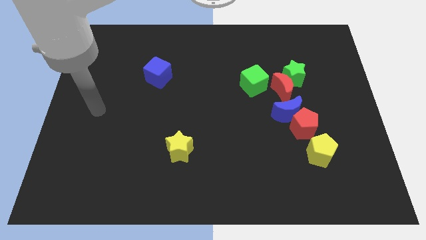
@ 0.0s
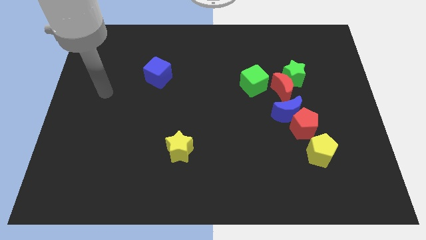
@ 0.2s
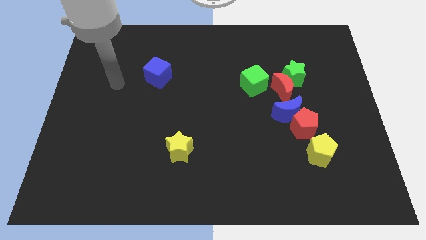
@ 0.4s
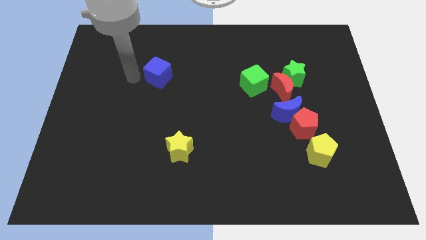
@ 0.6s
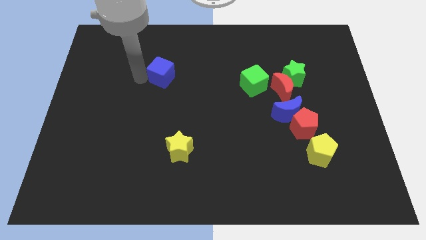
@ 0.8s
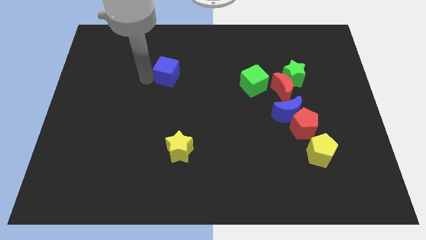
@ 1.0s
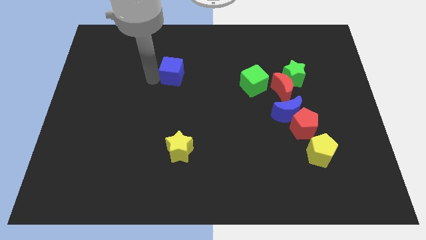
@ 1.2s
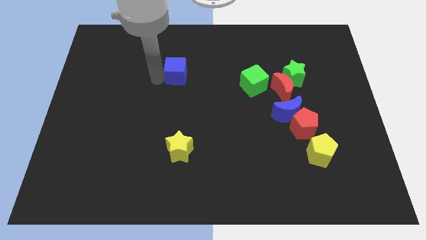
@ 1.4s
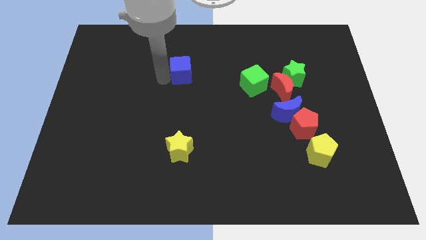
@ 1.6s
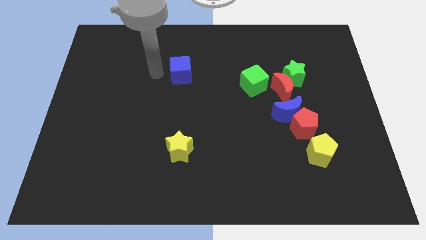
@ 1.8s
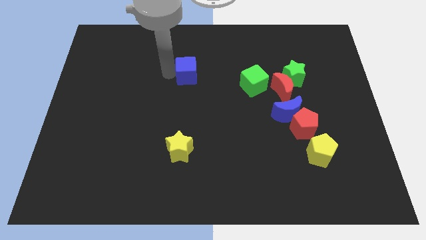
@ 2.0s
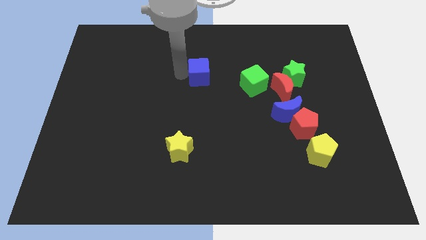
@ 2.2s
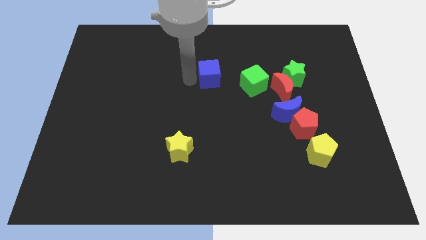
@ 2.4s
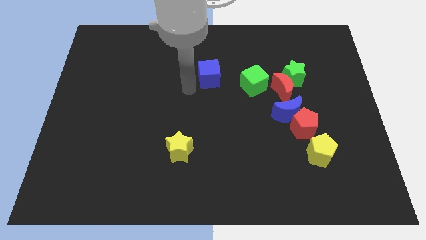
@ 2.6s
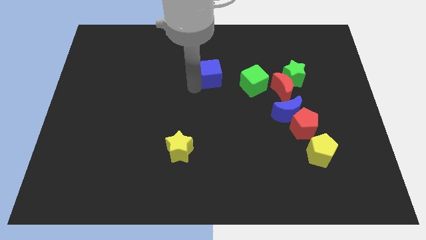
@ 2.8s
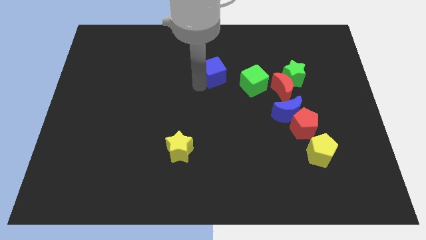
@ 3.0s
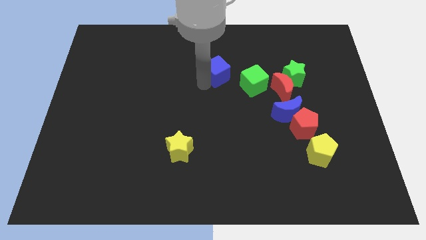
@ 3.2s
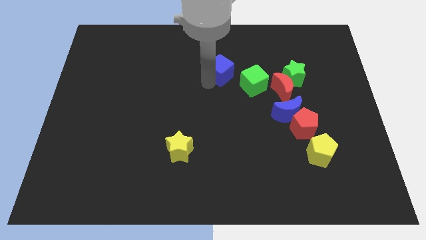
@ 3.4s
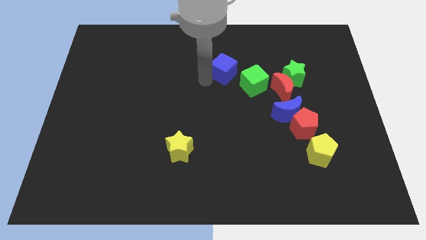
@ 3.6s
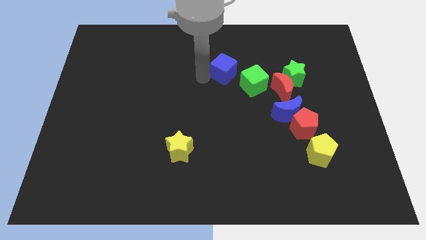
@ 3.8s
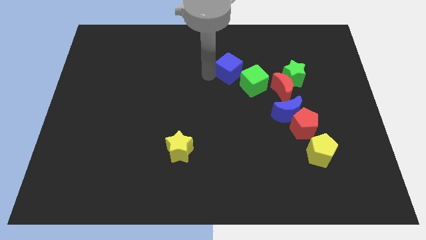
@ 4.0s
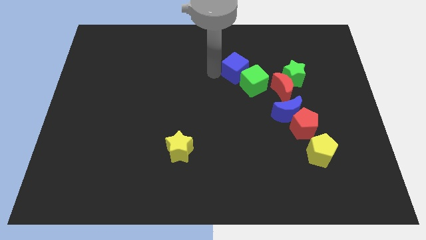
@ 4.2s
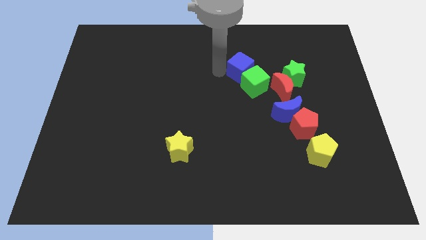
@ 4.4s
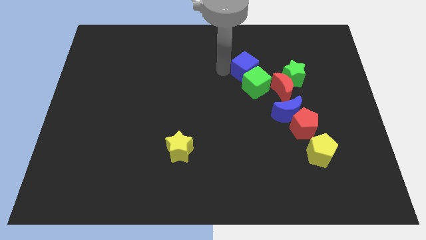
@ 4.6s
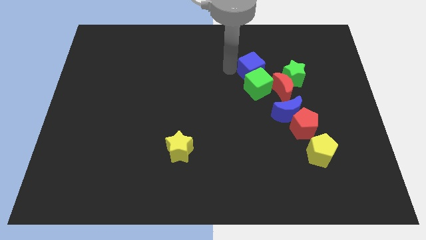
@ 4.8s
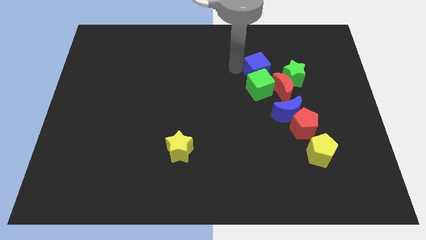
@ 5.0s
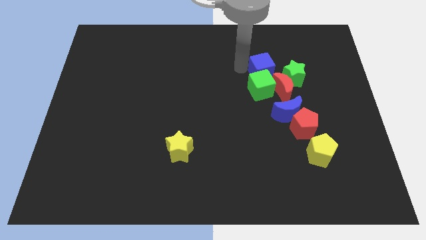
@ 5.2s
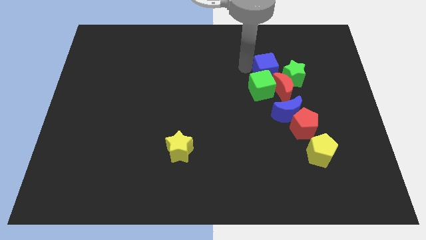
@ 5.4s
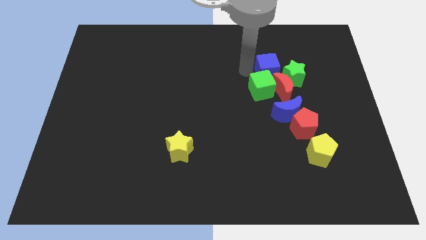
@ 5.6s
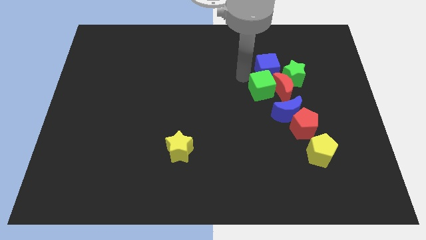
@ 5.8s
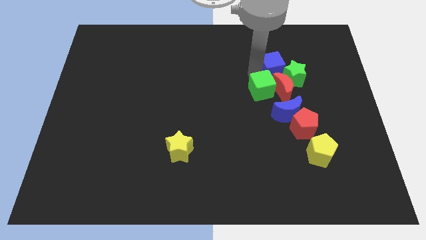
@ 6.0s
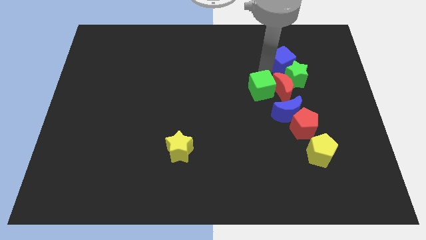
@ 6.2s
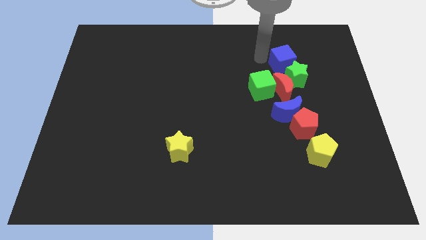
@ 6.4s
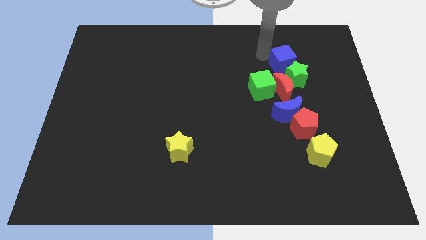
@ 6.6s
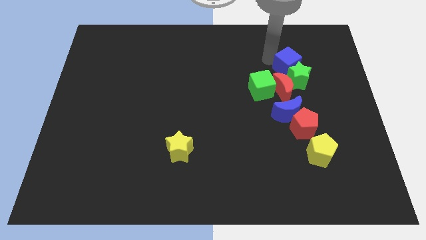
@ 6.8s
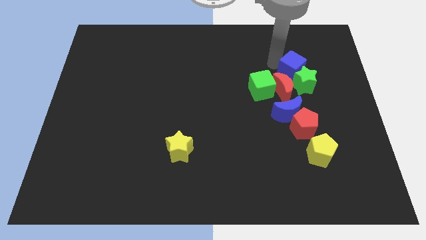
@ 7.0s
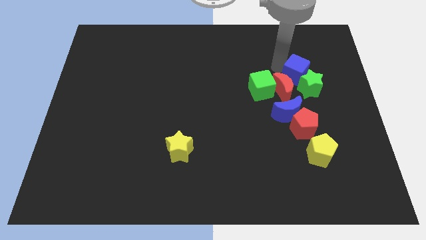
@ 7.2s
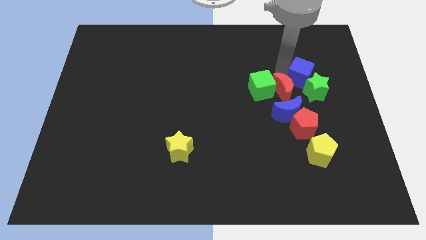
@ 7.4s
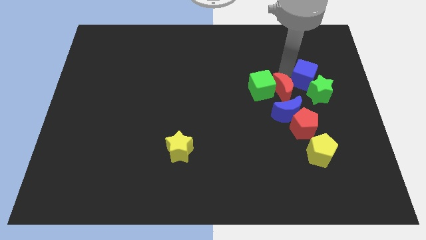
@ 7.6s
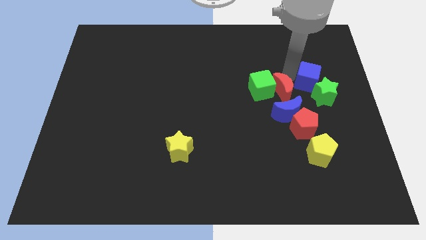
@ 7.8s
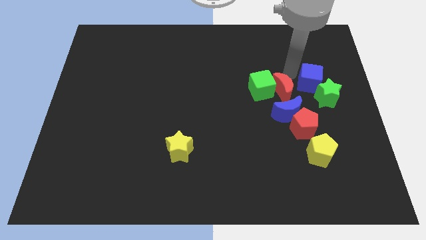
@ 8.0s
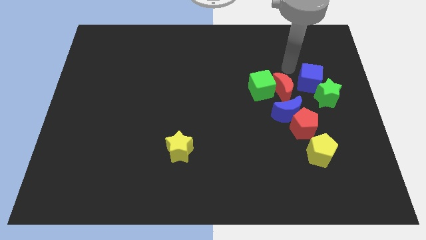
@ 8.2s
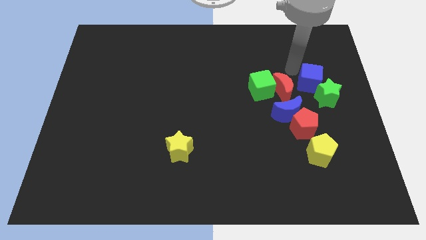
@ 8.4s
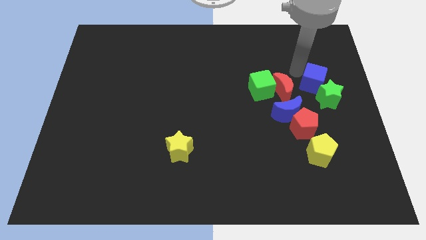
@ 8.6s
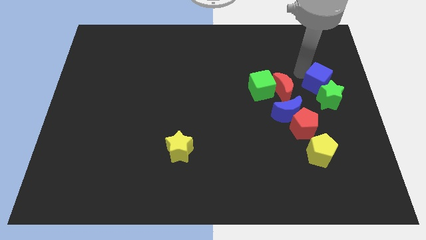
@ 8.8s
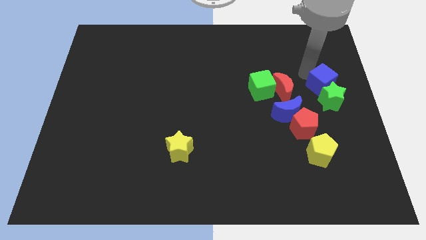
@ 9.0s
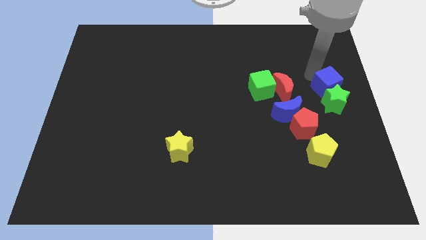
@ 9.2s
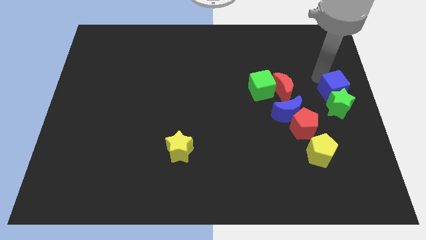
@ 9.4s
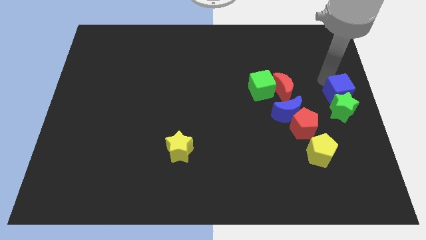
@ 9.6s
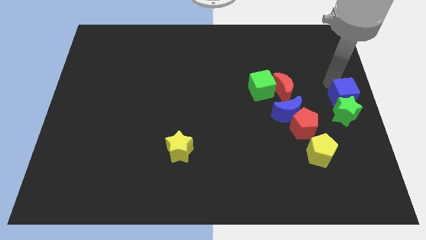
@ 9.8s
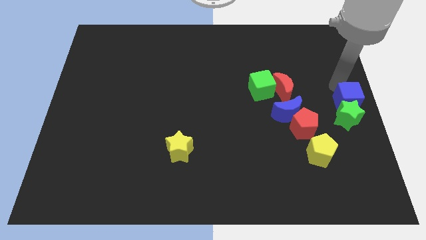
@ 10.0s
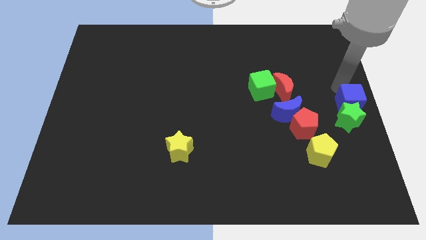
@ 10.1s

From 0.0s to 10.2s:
slide the blue cube to the right of the blue moon

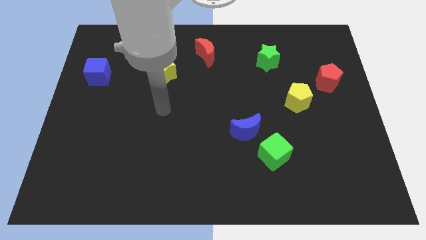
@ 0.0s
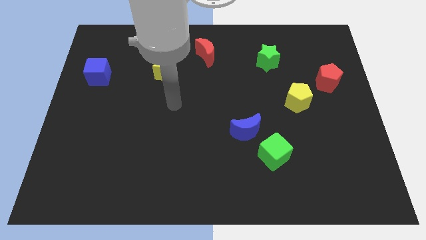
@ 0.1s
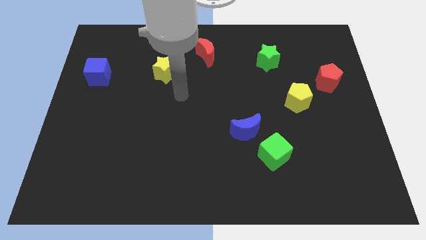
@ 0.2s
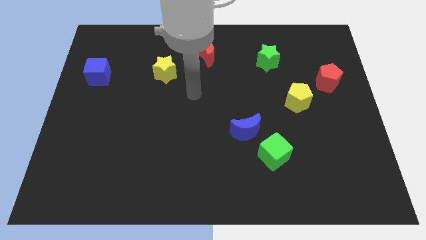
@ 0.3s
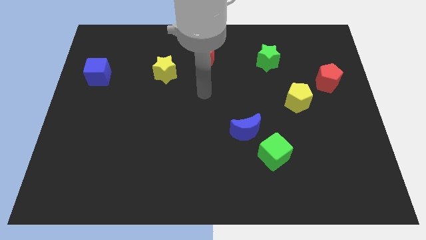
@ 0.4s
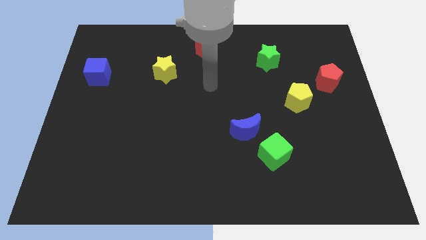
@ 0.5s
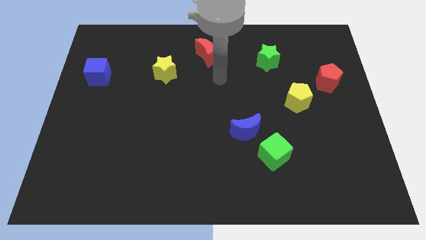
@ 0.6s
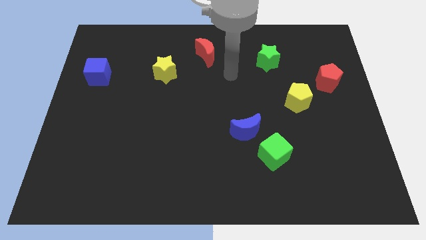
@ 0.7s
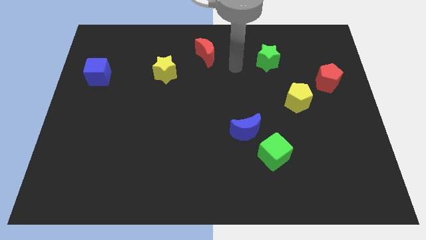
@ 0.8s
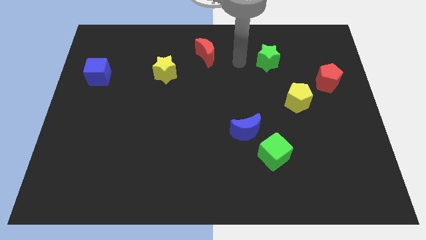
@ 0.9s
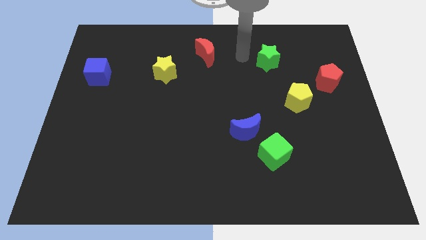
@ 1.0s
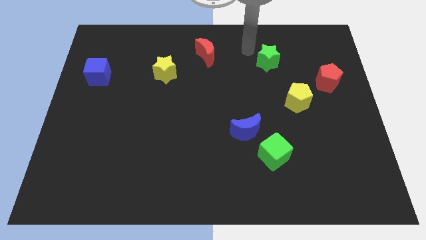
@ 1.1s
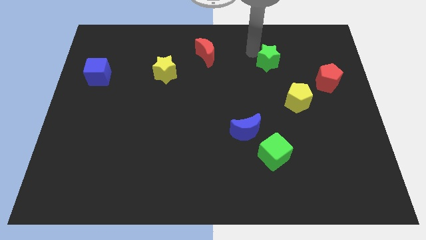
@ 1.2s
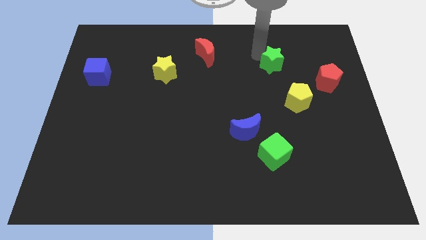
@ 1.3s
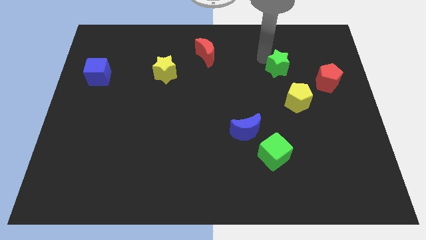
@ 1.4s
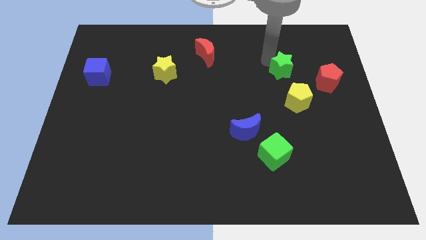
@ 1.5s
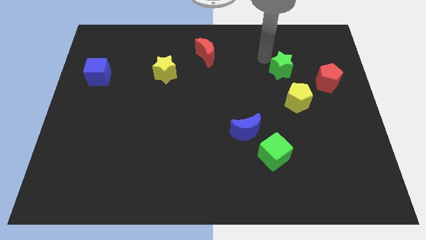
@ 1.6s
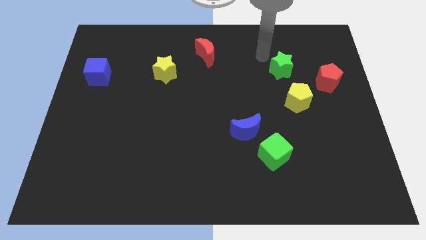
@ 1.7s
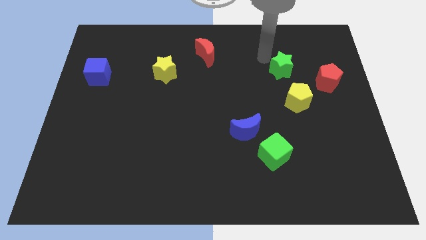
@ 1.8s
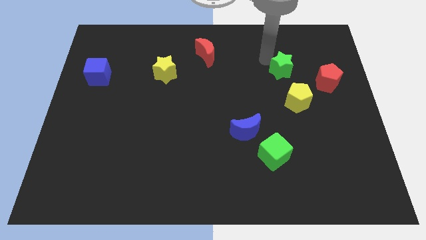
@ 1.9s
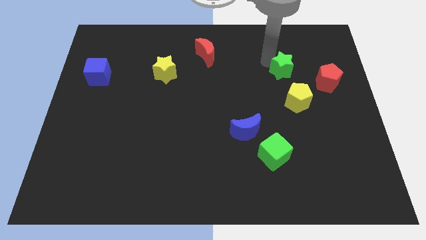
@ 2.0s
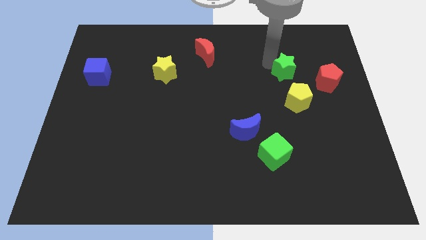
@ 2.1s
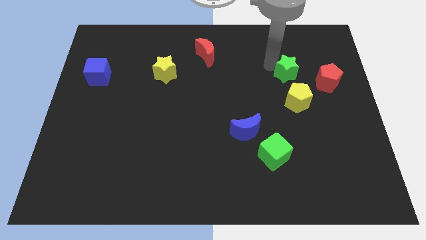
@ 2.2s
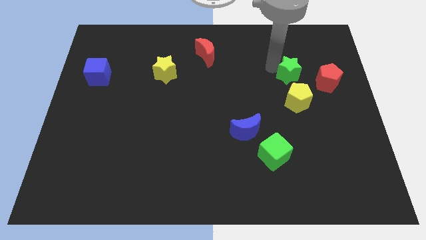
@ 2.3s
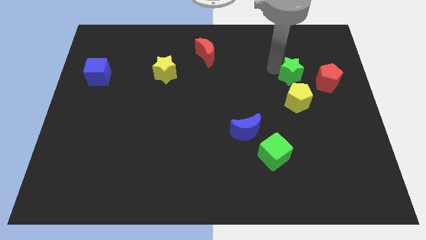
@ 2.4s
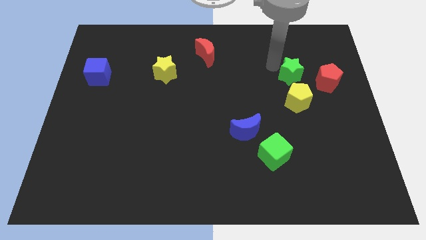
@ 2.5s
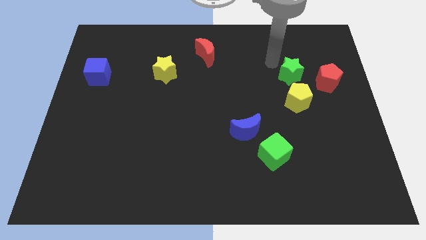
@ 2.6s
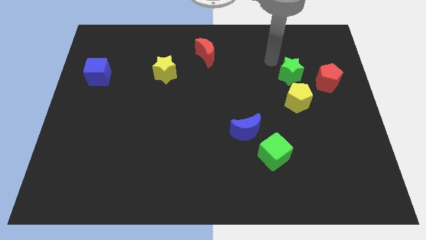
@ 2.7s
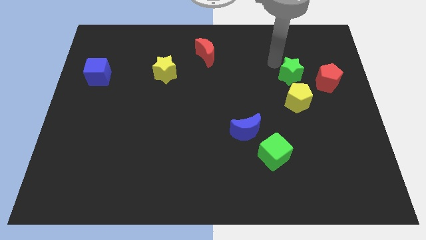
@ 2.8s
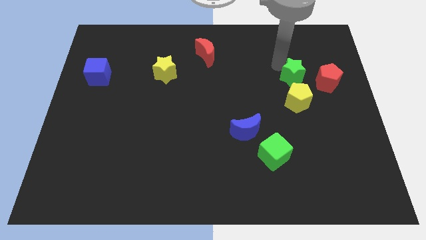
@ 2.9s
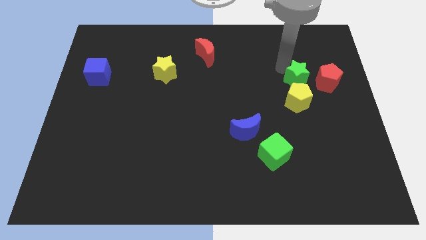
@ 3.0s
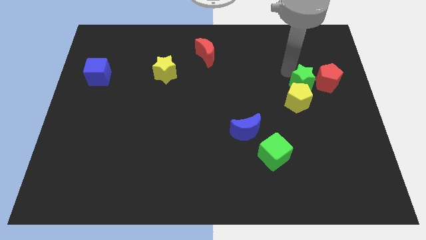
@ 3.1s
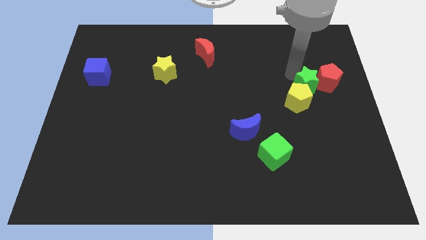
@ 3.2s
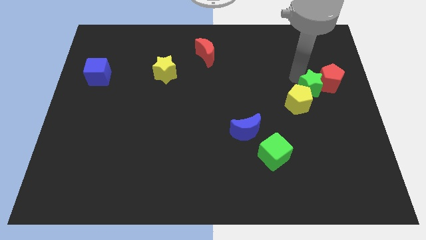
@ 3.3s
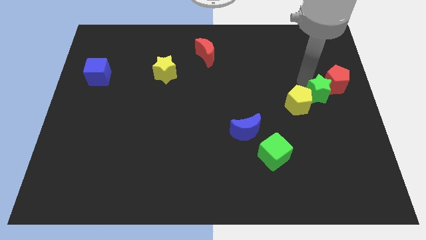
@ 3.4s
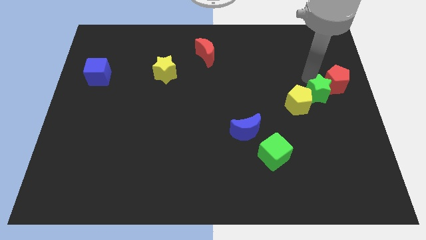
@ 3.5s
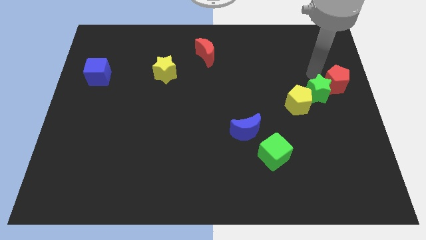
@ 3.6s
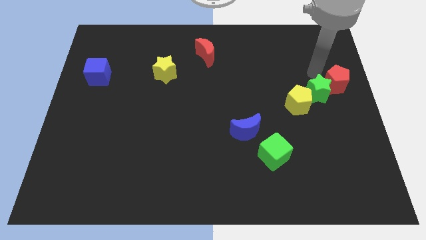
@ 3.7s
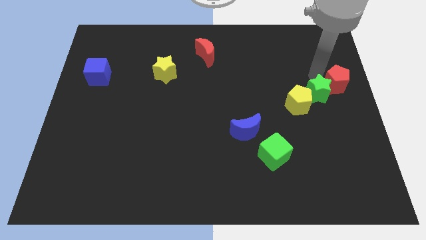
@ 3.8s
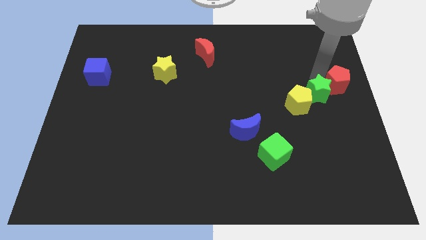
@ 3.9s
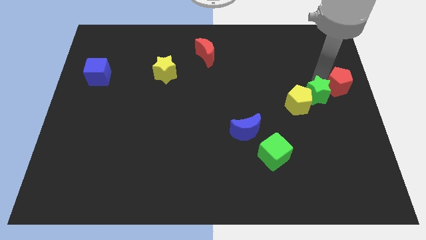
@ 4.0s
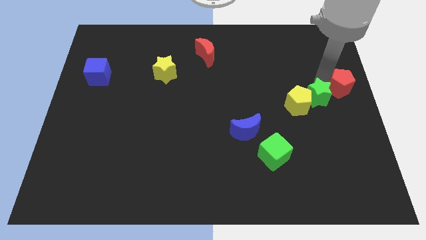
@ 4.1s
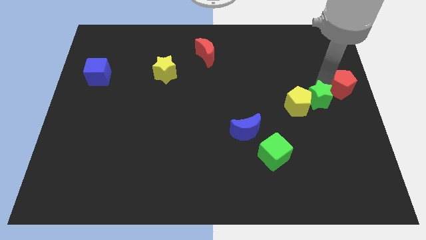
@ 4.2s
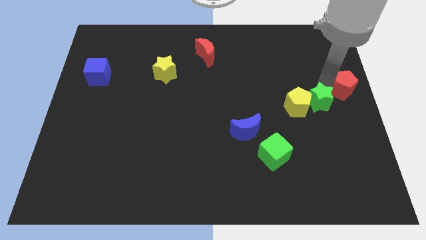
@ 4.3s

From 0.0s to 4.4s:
slide the green star to the bottom right side of the yellow pentagon
